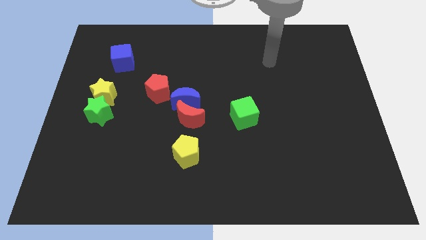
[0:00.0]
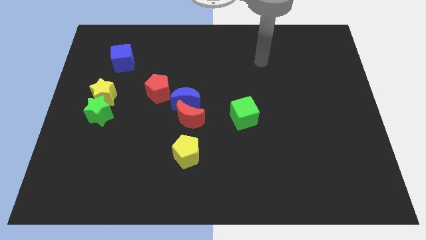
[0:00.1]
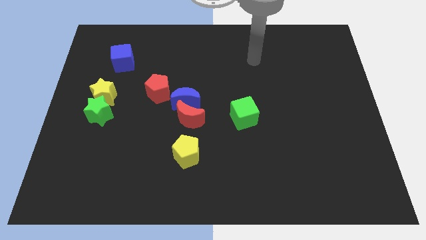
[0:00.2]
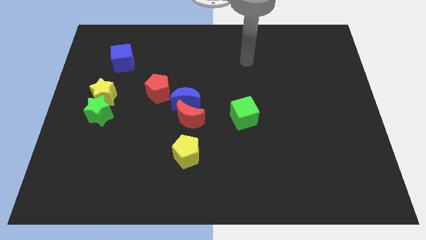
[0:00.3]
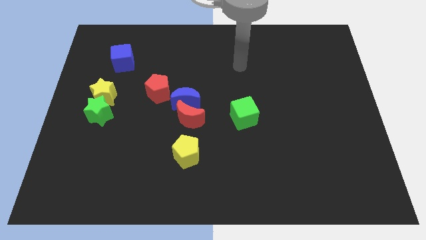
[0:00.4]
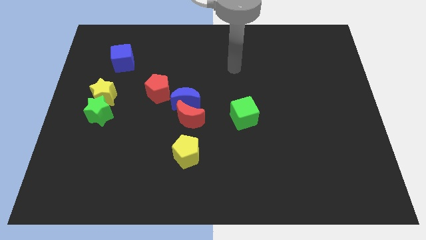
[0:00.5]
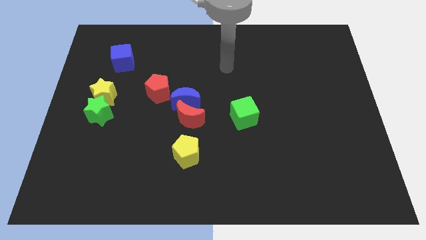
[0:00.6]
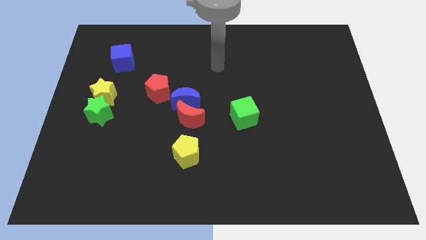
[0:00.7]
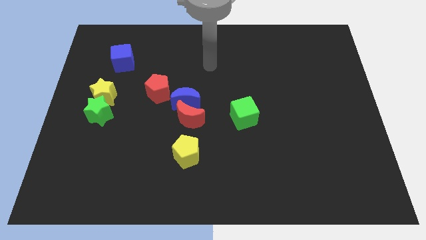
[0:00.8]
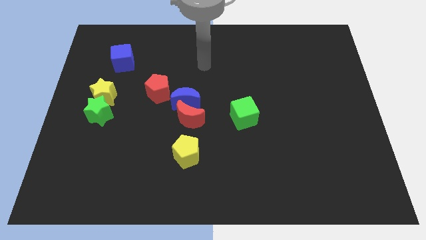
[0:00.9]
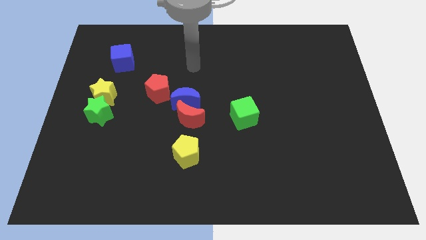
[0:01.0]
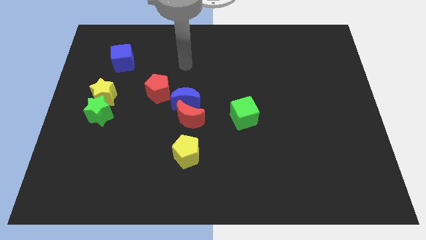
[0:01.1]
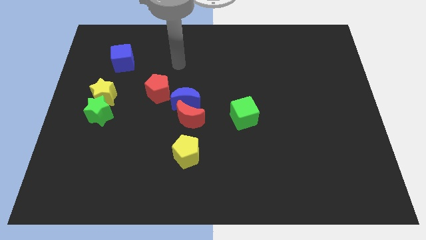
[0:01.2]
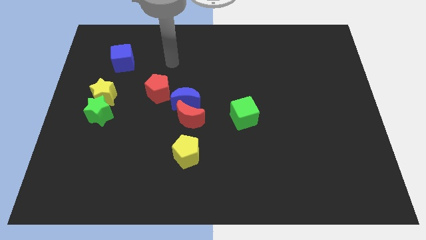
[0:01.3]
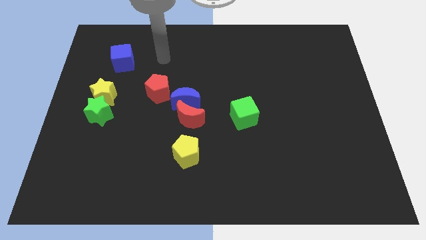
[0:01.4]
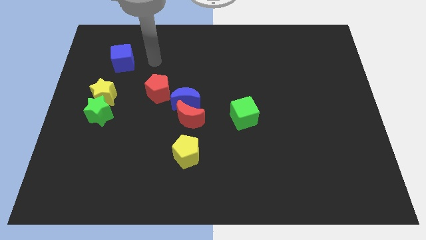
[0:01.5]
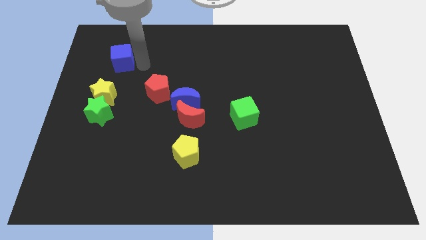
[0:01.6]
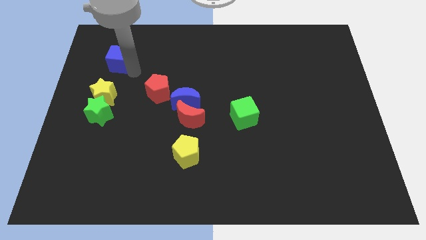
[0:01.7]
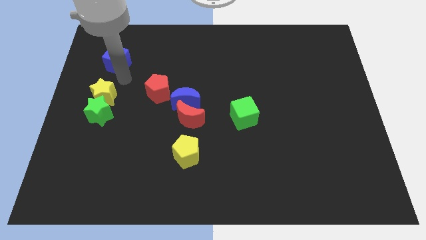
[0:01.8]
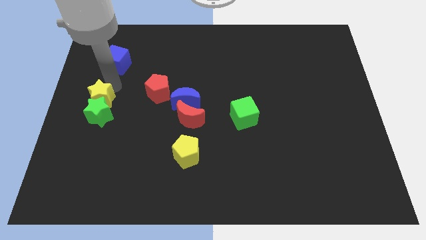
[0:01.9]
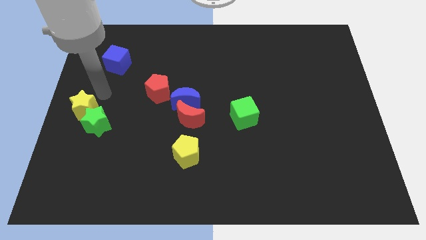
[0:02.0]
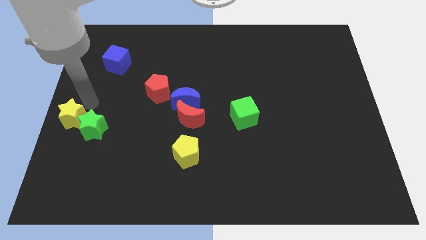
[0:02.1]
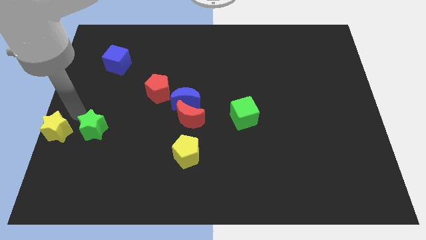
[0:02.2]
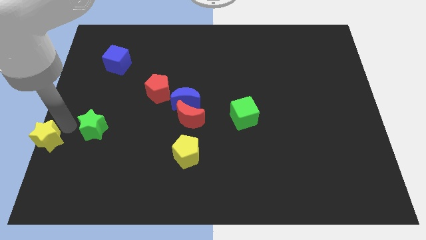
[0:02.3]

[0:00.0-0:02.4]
separate the green star from the yellow star

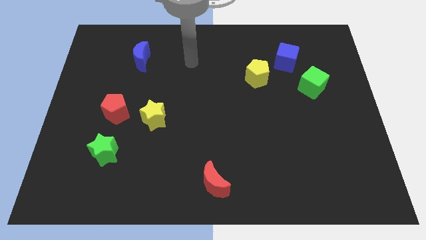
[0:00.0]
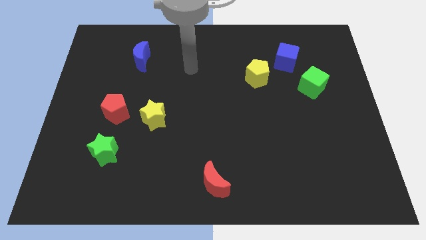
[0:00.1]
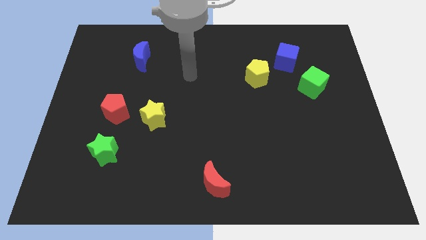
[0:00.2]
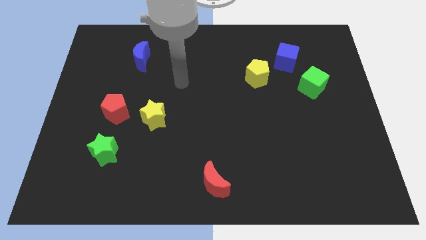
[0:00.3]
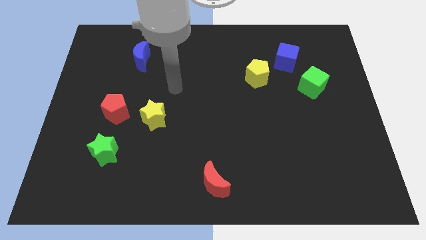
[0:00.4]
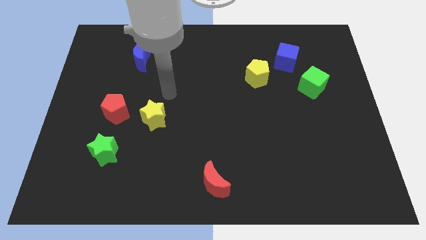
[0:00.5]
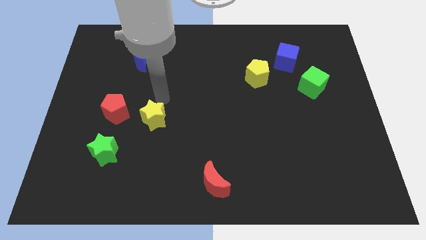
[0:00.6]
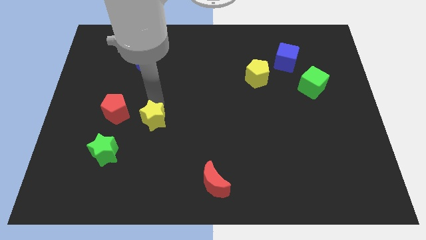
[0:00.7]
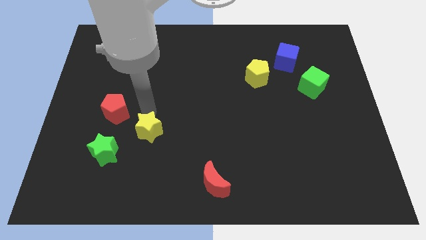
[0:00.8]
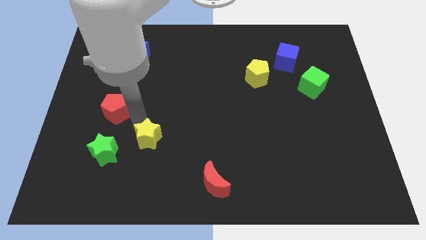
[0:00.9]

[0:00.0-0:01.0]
pull the red pentagon apart from the yellow star

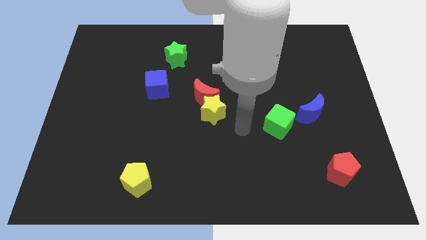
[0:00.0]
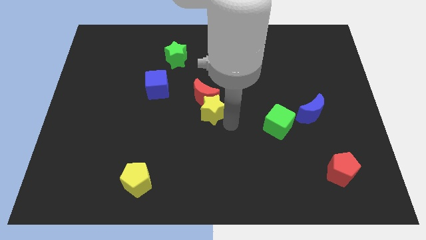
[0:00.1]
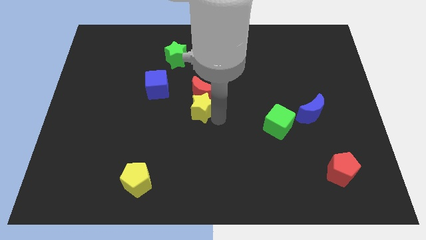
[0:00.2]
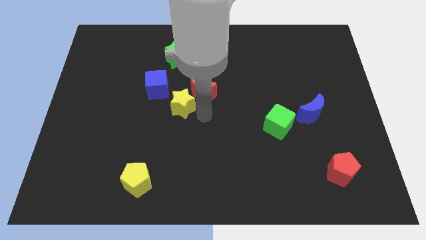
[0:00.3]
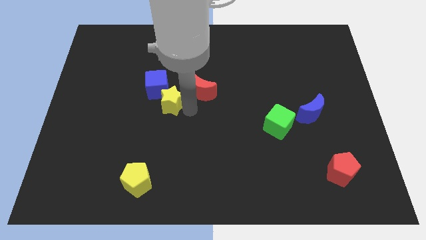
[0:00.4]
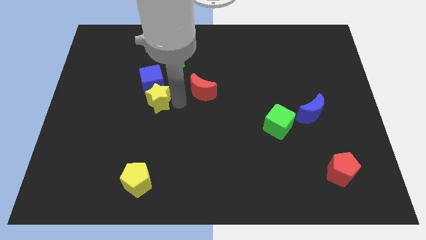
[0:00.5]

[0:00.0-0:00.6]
move the red moon away from the yellow star

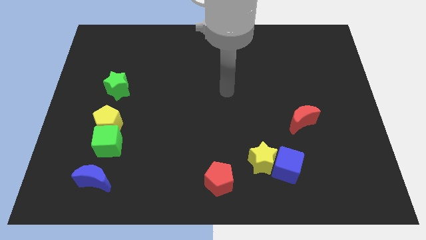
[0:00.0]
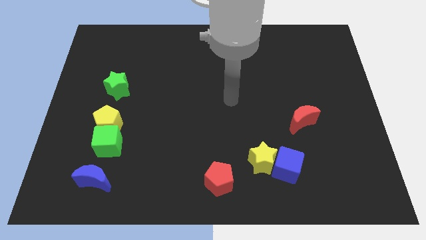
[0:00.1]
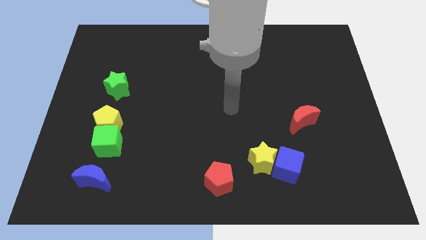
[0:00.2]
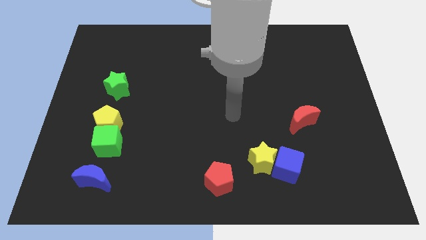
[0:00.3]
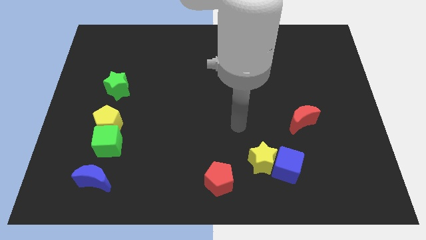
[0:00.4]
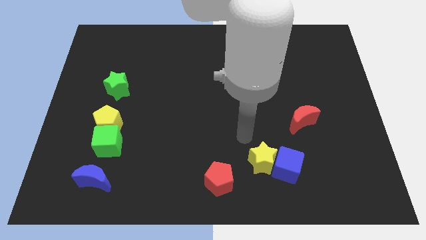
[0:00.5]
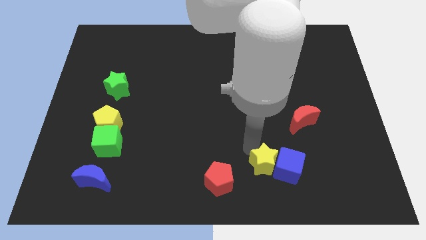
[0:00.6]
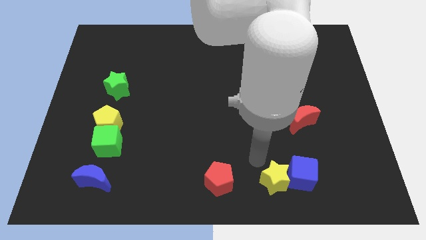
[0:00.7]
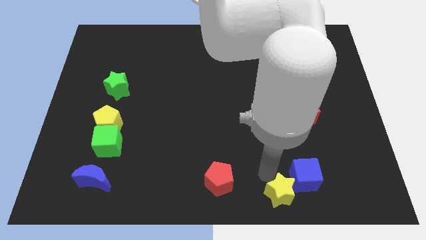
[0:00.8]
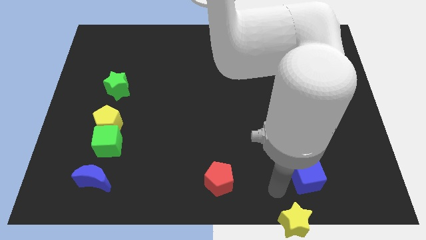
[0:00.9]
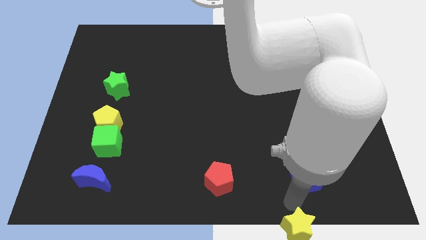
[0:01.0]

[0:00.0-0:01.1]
pull the blue cube apart from the yellow star

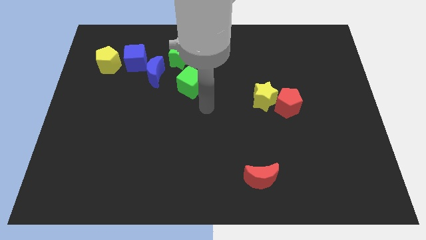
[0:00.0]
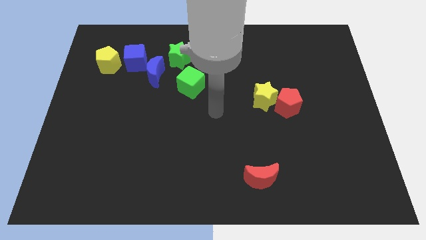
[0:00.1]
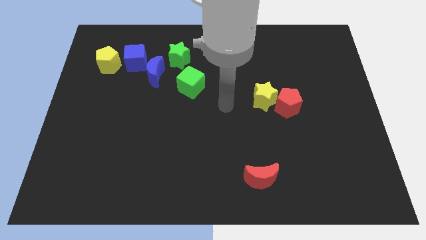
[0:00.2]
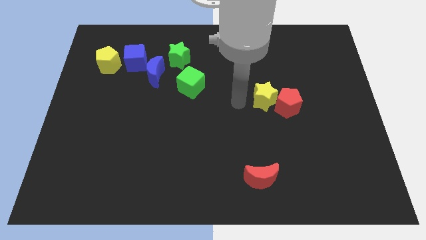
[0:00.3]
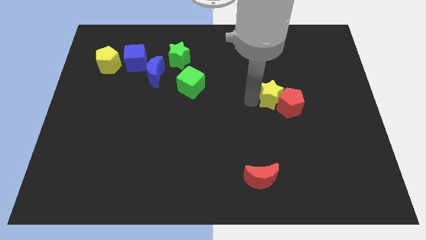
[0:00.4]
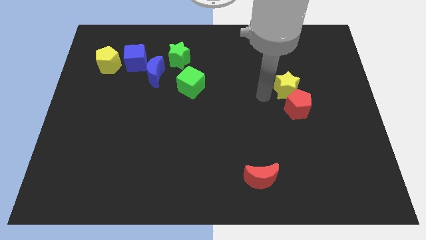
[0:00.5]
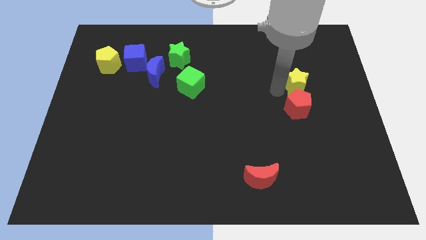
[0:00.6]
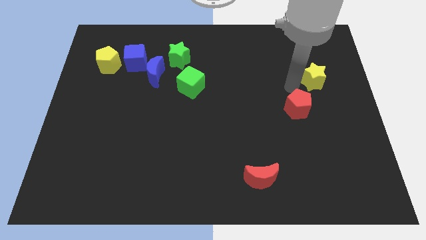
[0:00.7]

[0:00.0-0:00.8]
separate the red pentagon from the yellow star

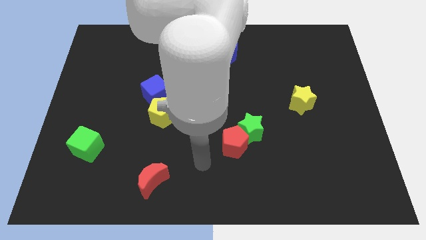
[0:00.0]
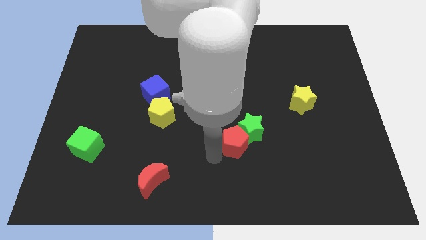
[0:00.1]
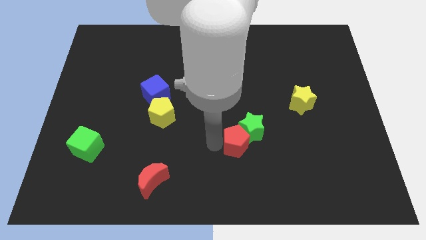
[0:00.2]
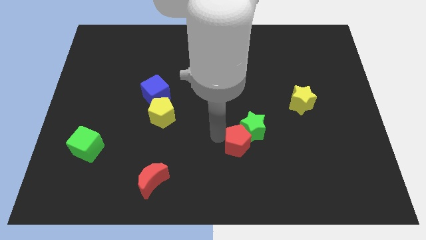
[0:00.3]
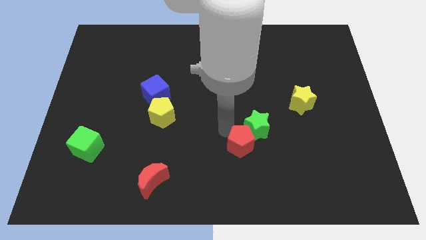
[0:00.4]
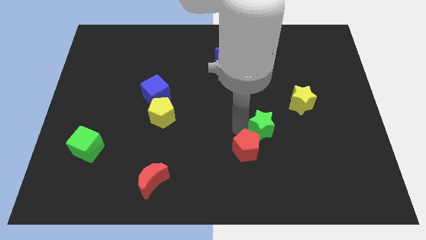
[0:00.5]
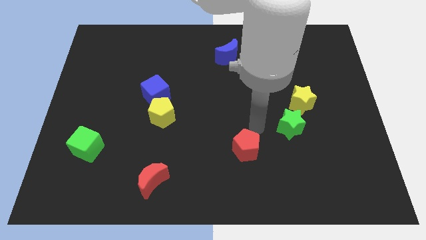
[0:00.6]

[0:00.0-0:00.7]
move the red pentagon away from the green star

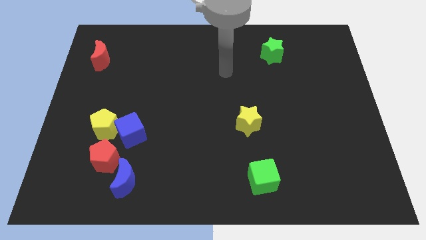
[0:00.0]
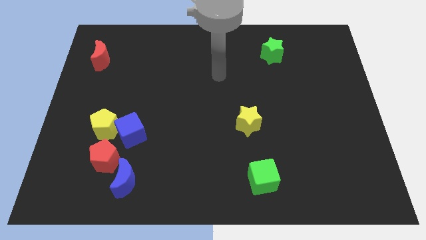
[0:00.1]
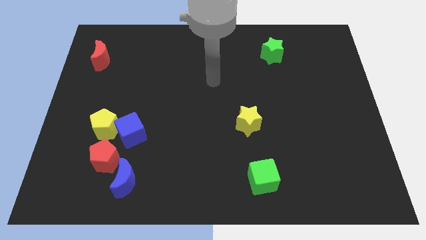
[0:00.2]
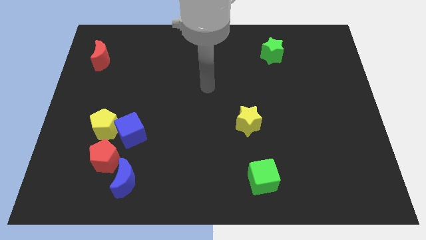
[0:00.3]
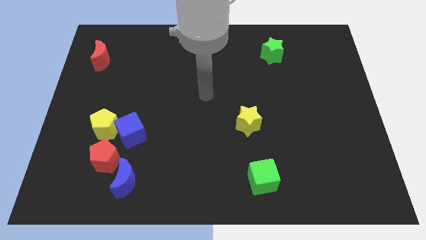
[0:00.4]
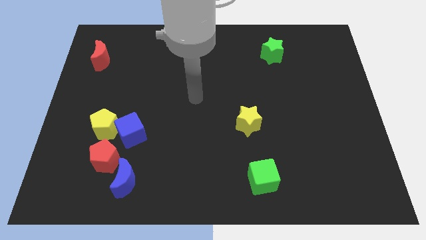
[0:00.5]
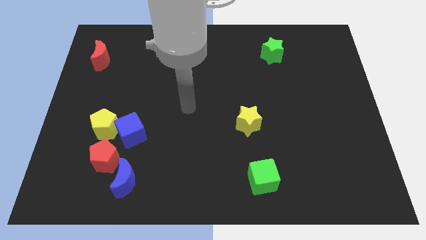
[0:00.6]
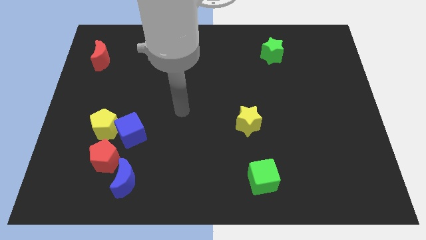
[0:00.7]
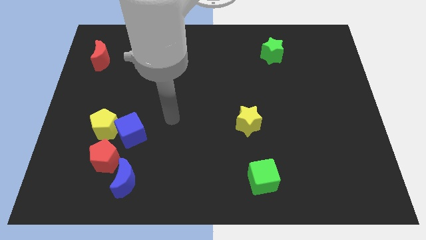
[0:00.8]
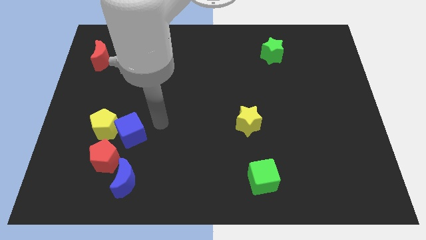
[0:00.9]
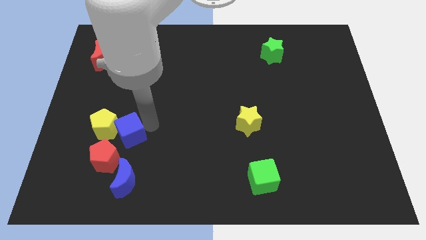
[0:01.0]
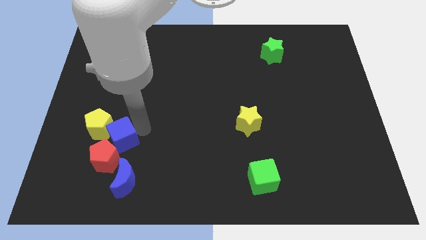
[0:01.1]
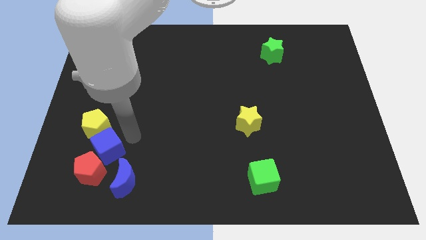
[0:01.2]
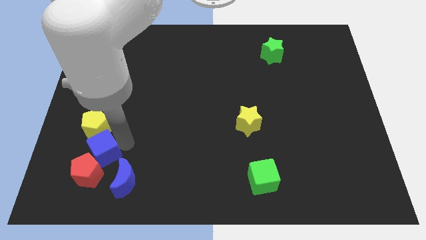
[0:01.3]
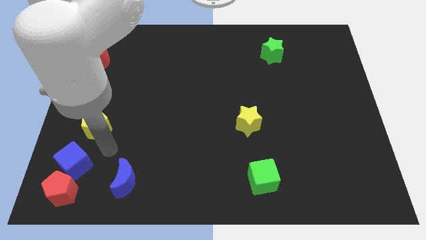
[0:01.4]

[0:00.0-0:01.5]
separate the yellow pentagon from the blue cube and red pentagon

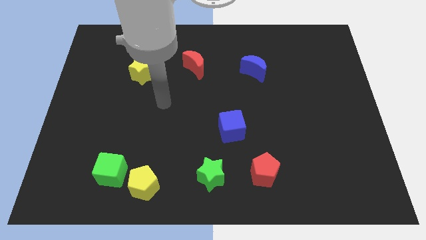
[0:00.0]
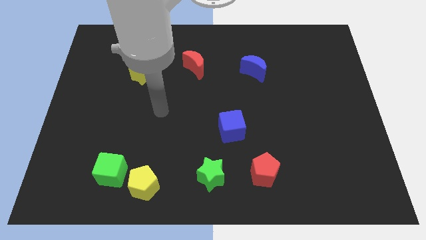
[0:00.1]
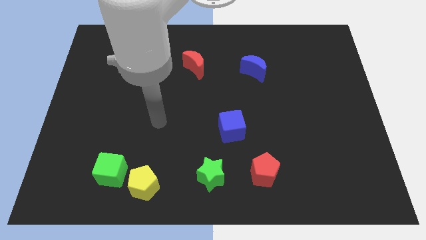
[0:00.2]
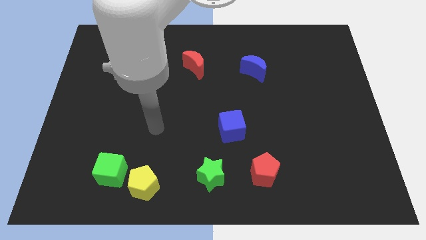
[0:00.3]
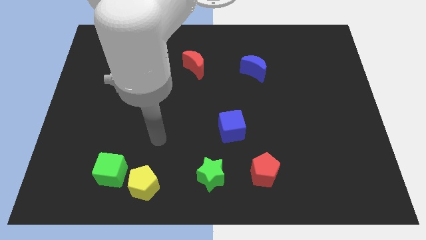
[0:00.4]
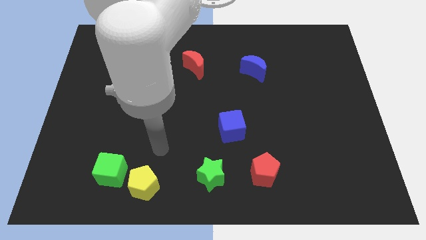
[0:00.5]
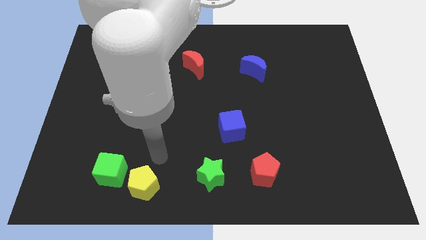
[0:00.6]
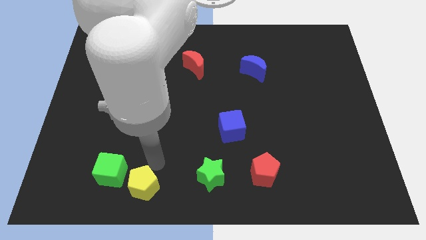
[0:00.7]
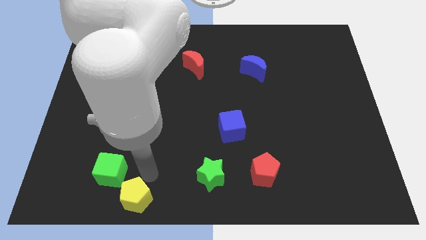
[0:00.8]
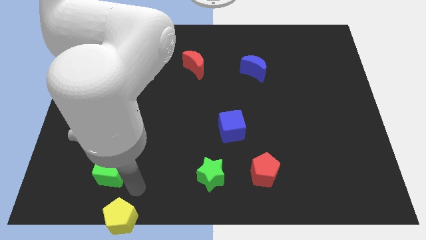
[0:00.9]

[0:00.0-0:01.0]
move the green cube away from the yellow pentagon

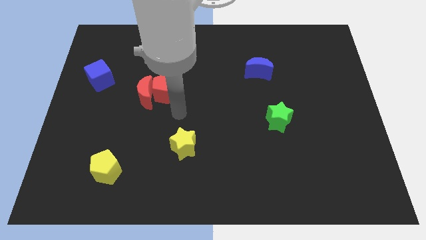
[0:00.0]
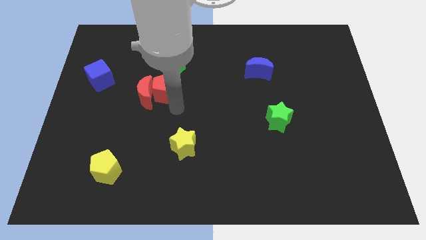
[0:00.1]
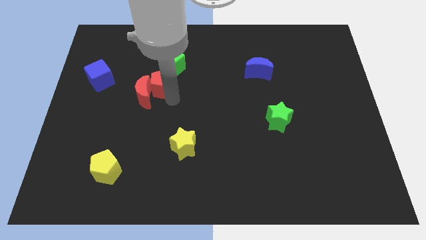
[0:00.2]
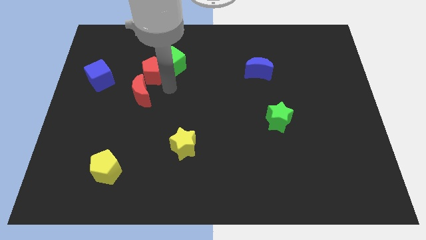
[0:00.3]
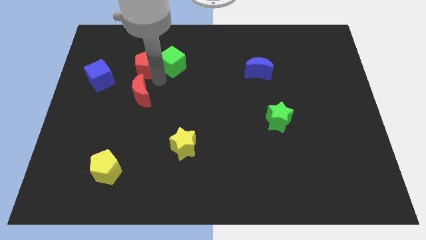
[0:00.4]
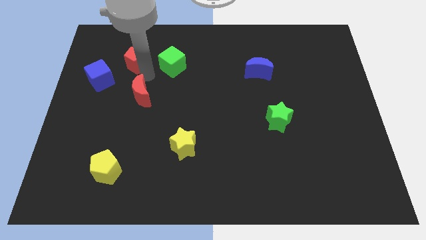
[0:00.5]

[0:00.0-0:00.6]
move the red moon away from the red pentagon
